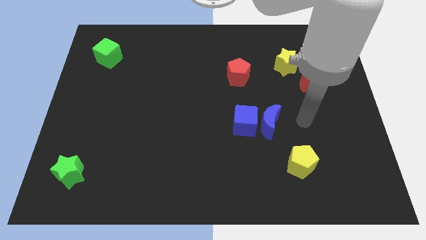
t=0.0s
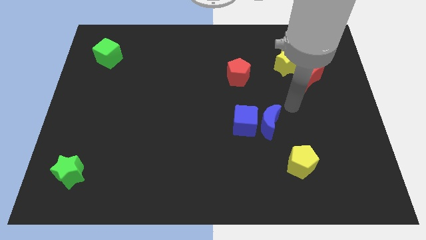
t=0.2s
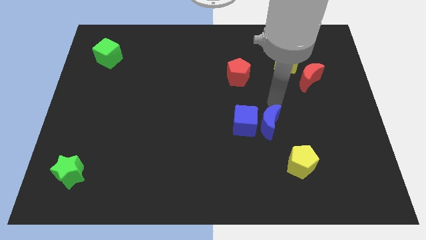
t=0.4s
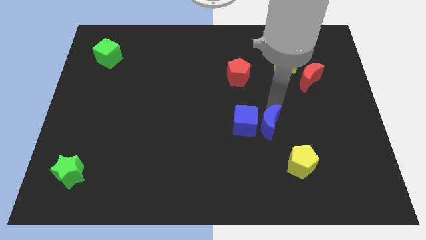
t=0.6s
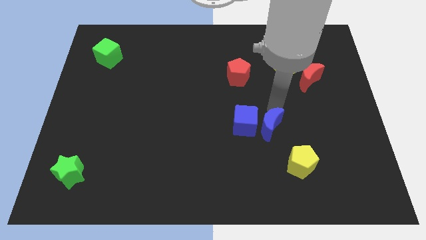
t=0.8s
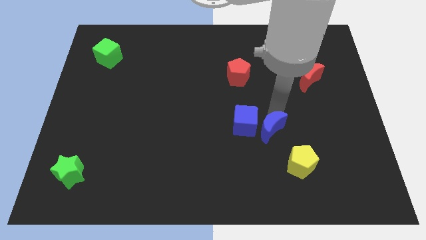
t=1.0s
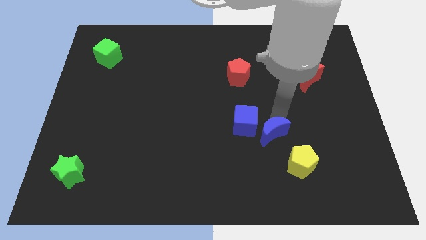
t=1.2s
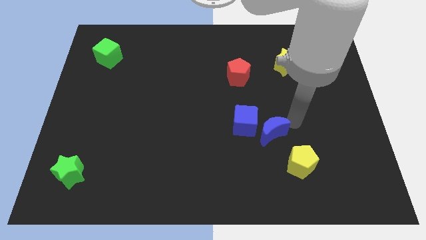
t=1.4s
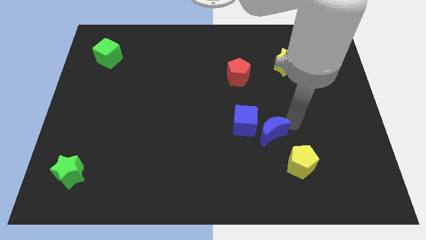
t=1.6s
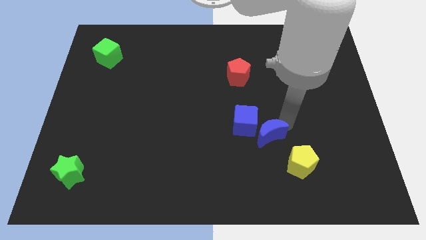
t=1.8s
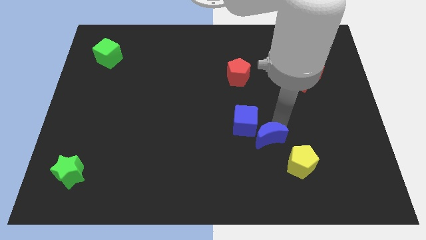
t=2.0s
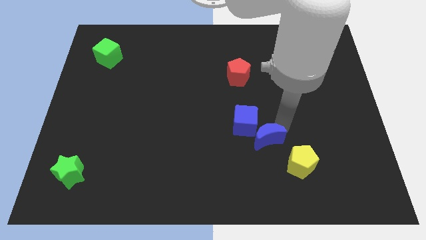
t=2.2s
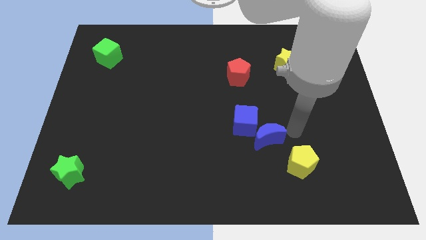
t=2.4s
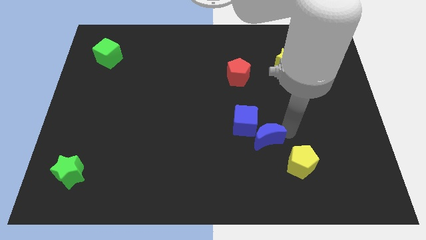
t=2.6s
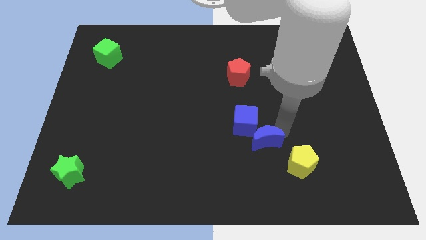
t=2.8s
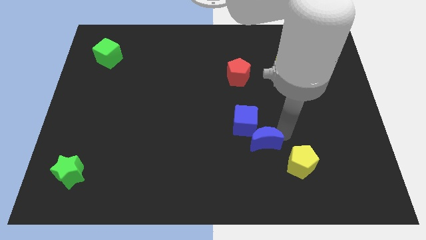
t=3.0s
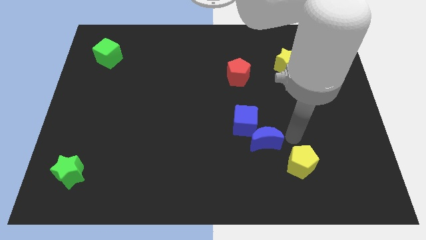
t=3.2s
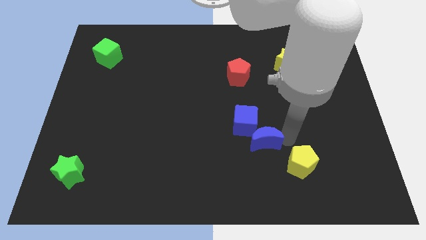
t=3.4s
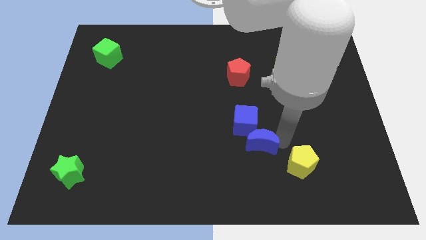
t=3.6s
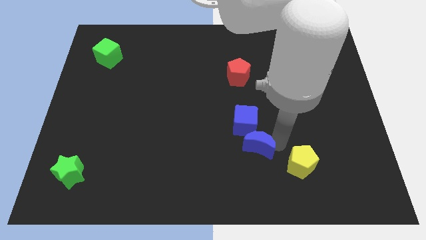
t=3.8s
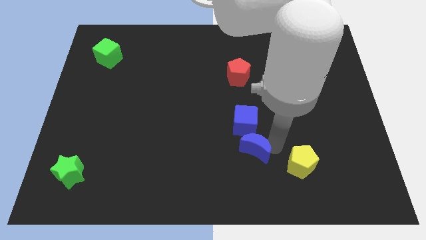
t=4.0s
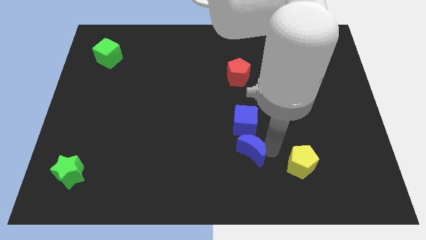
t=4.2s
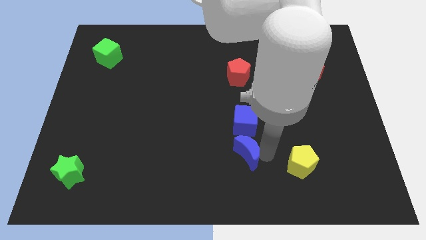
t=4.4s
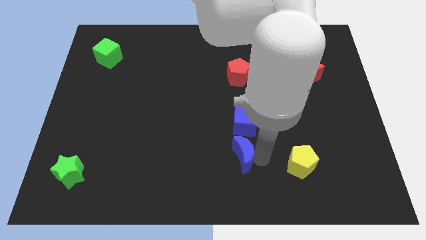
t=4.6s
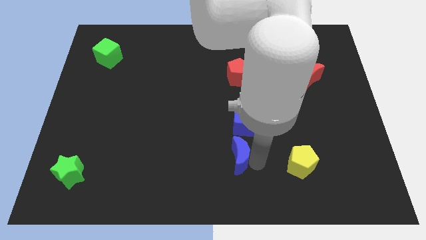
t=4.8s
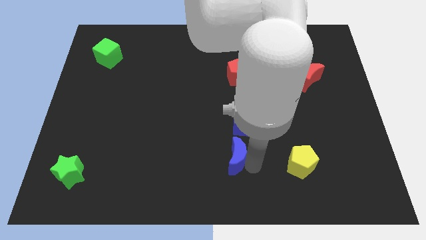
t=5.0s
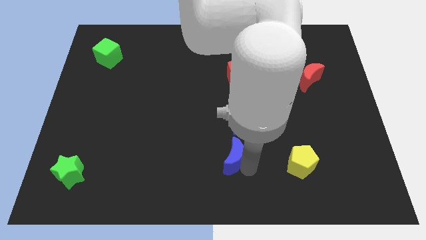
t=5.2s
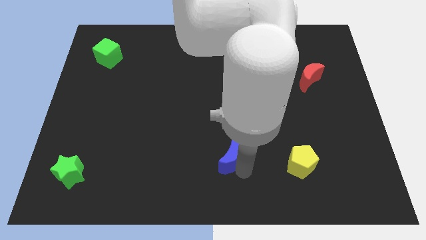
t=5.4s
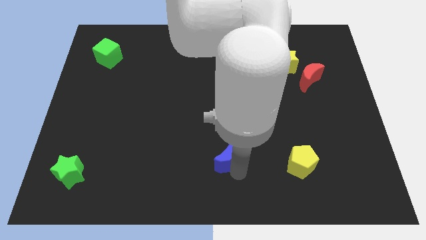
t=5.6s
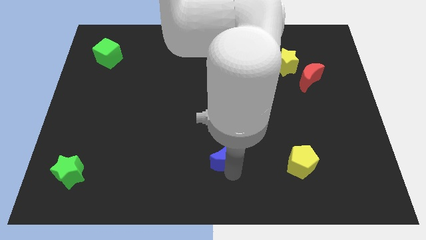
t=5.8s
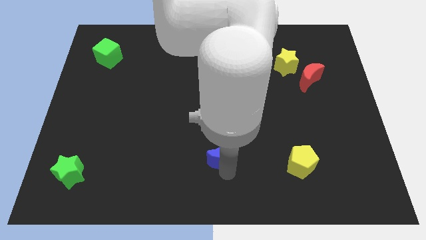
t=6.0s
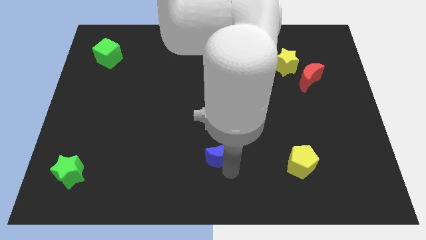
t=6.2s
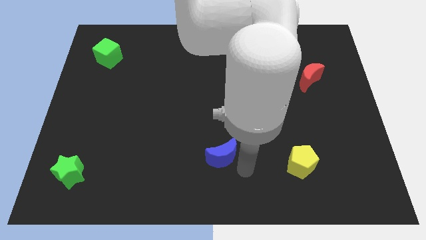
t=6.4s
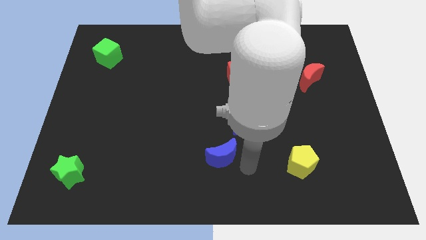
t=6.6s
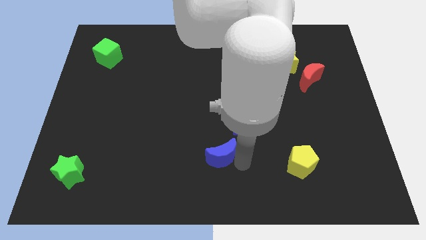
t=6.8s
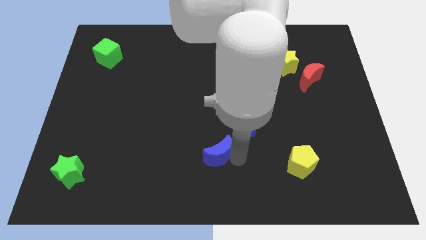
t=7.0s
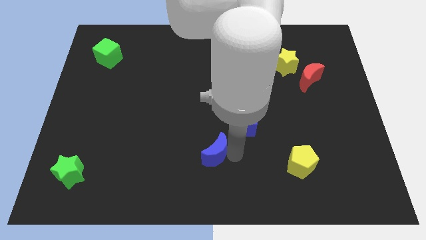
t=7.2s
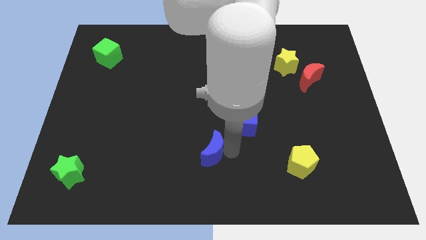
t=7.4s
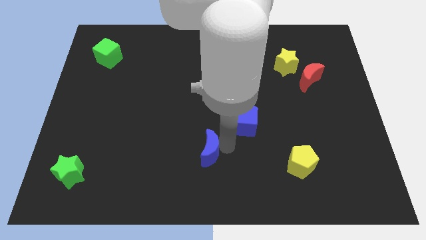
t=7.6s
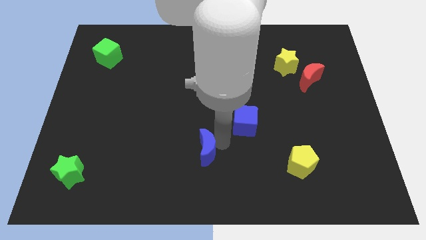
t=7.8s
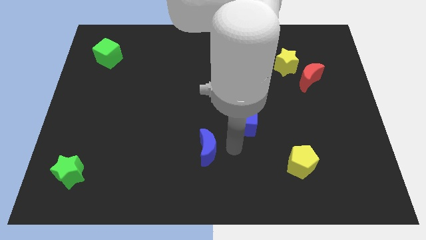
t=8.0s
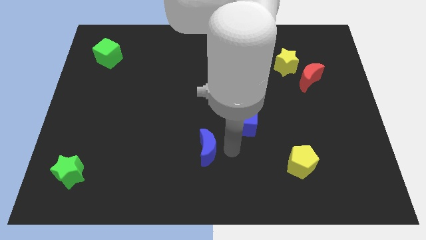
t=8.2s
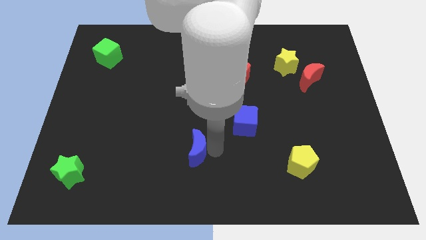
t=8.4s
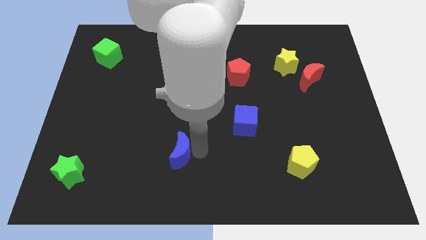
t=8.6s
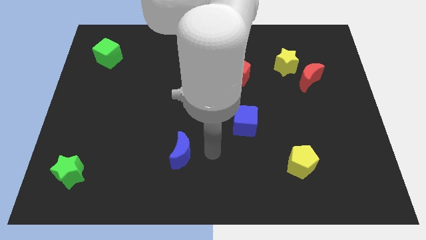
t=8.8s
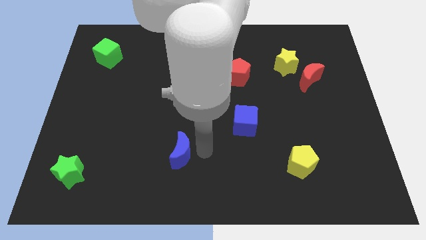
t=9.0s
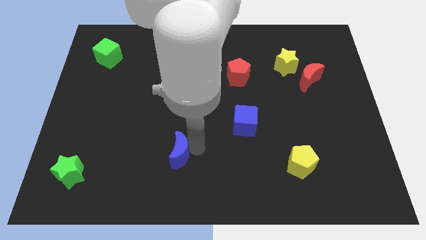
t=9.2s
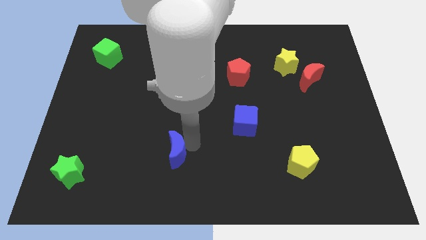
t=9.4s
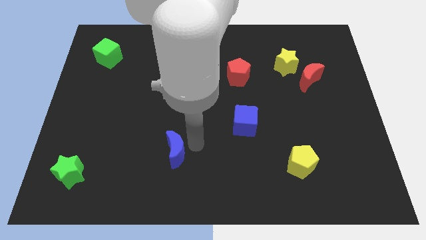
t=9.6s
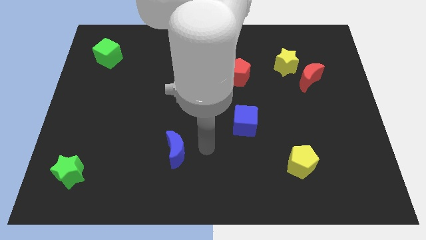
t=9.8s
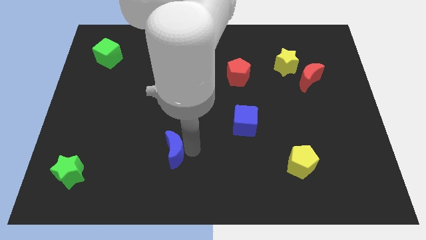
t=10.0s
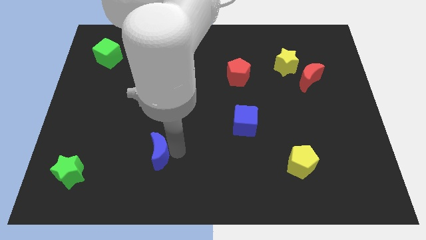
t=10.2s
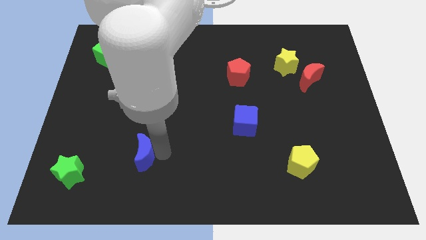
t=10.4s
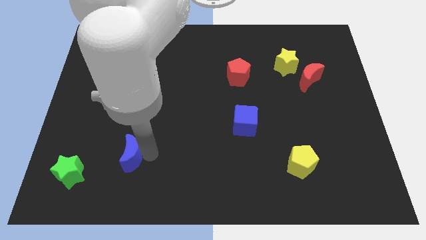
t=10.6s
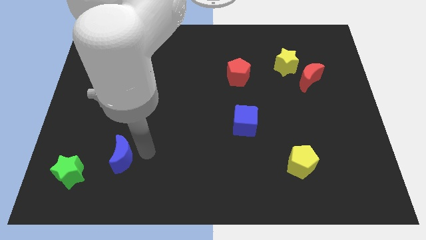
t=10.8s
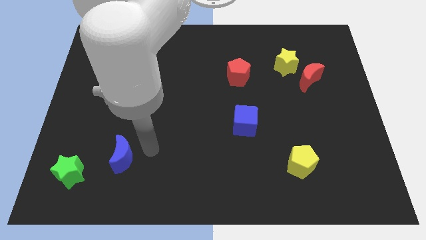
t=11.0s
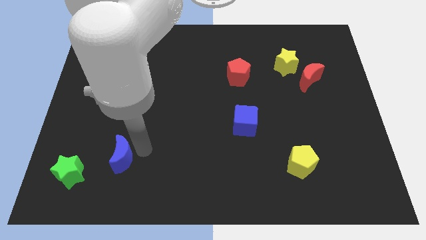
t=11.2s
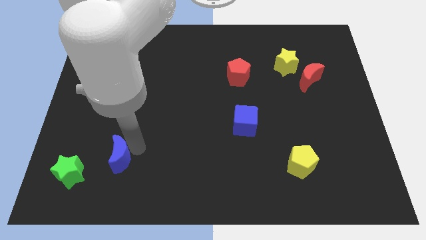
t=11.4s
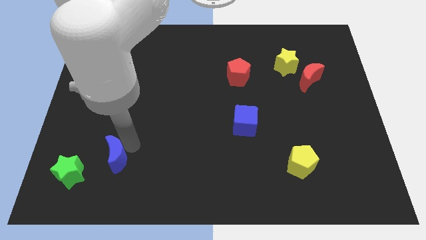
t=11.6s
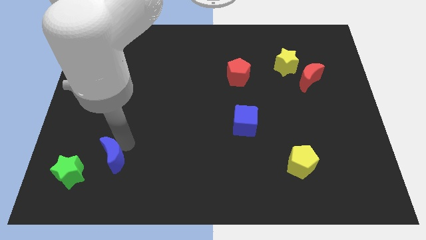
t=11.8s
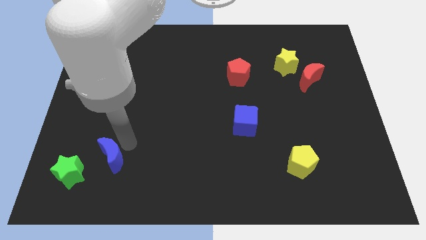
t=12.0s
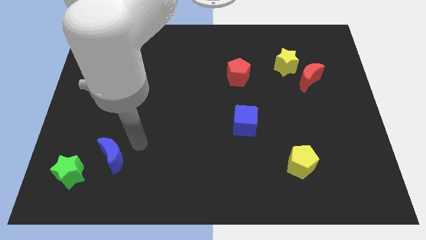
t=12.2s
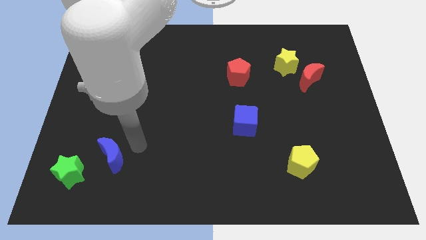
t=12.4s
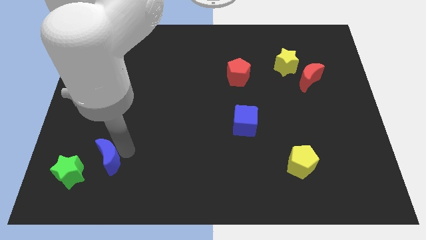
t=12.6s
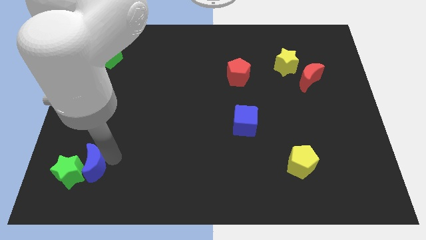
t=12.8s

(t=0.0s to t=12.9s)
move the blue moon towards the green star

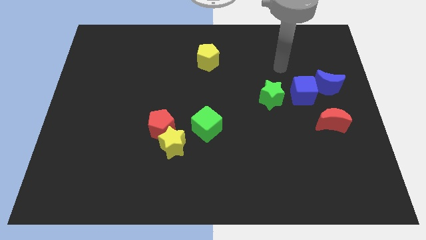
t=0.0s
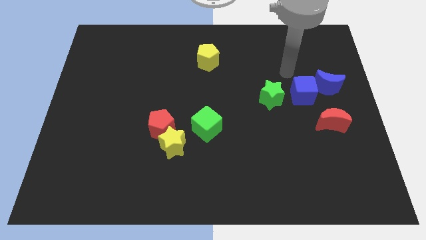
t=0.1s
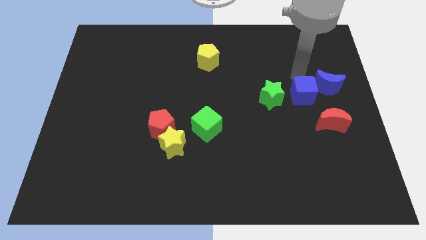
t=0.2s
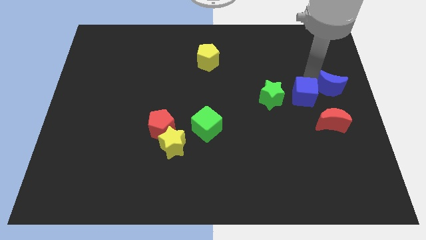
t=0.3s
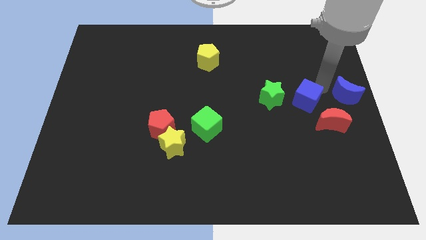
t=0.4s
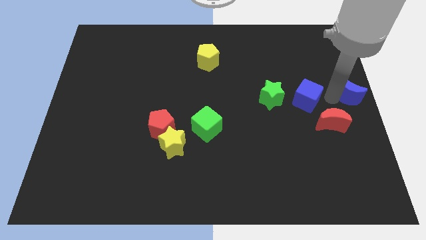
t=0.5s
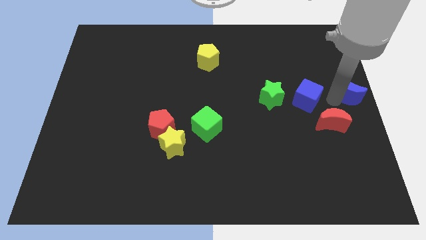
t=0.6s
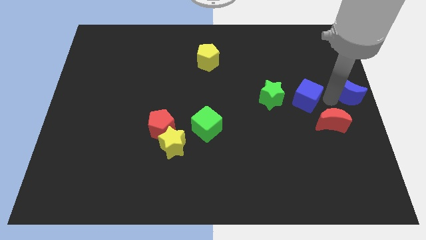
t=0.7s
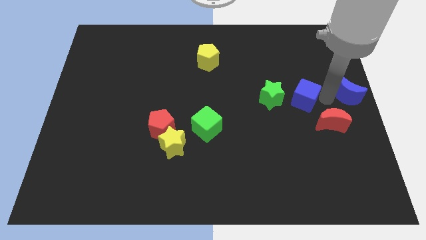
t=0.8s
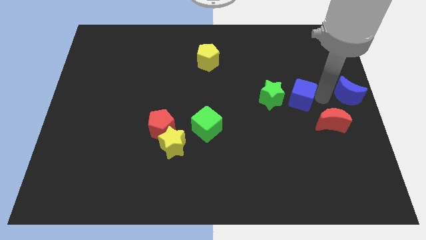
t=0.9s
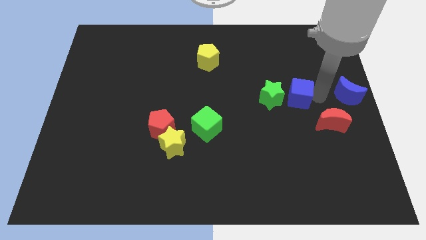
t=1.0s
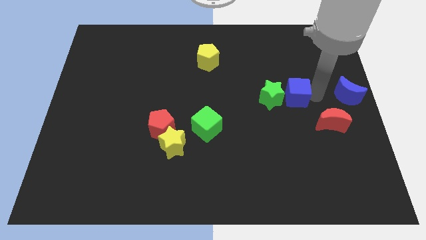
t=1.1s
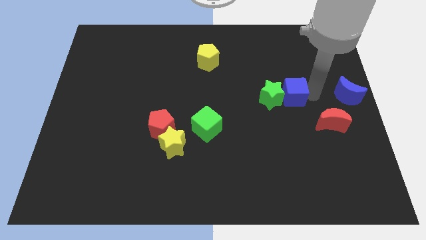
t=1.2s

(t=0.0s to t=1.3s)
move the blue cube next to the green star
